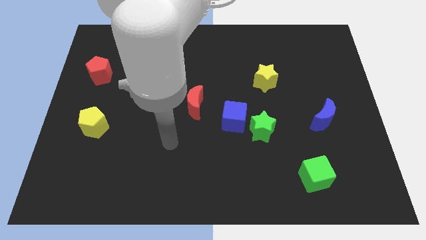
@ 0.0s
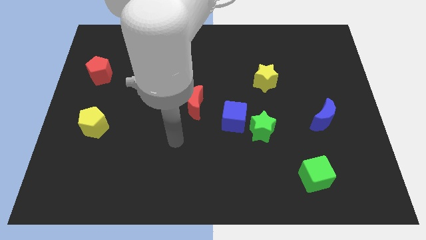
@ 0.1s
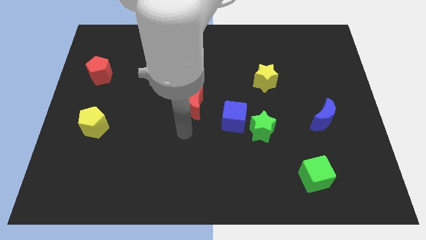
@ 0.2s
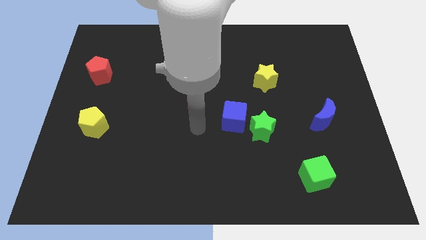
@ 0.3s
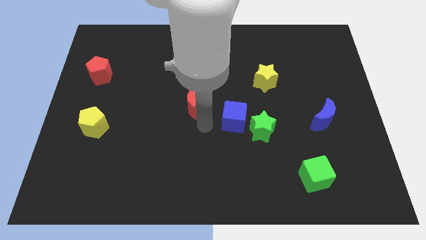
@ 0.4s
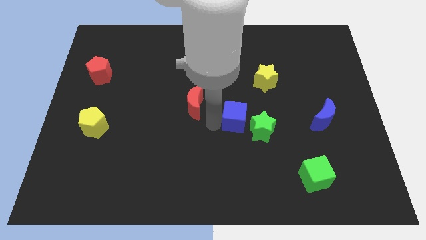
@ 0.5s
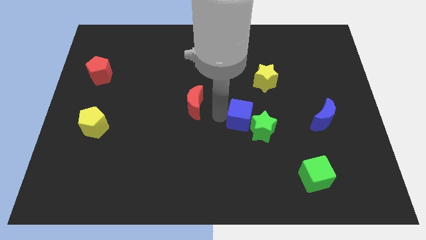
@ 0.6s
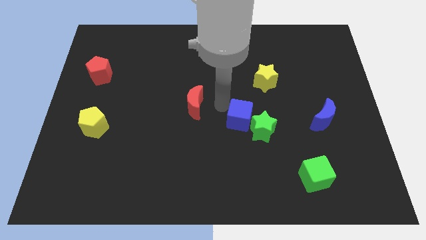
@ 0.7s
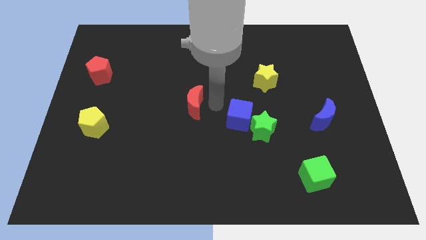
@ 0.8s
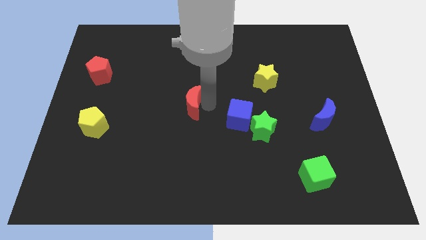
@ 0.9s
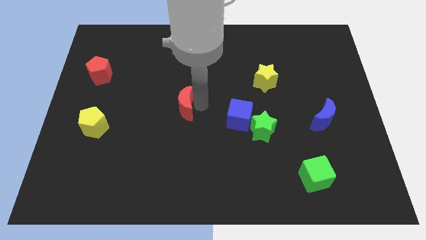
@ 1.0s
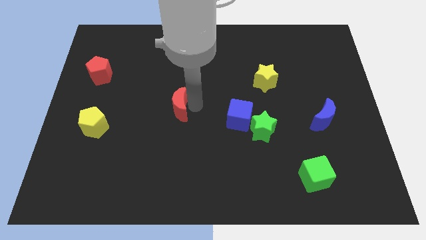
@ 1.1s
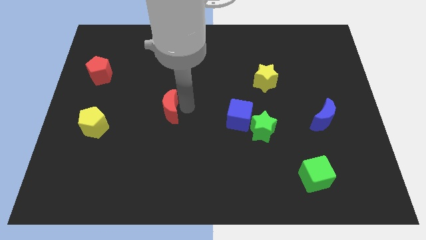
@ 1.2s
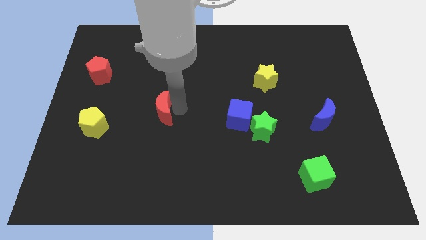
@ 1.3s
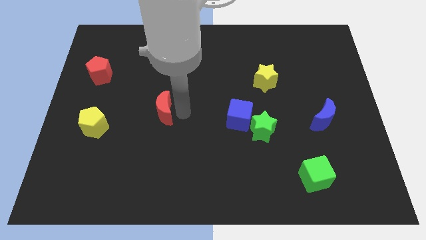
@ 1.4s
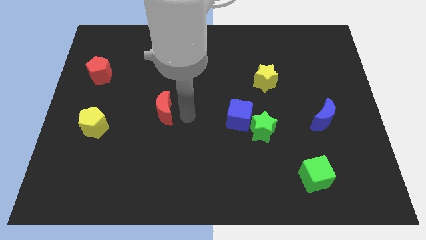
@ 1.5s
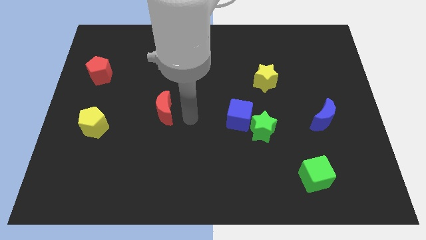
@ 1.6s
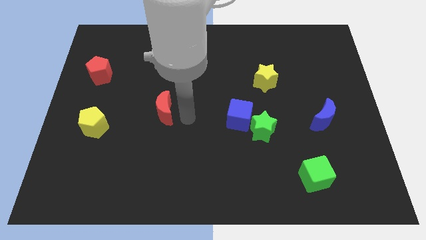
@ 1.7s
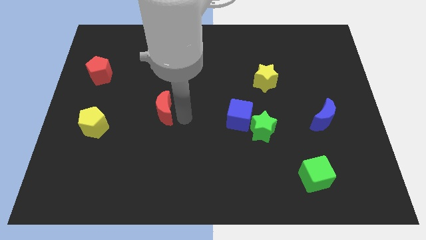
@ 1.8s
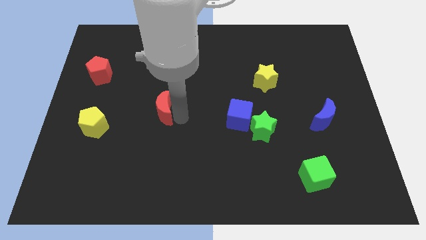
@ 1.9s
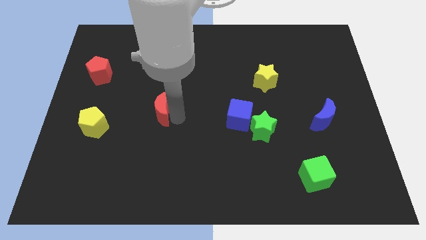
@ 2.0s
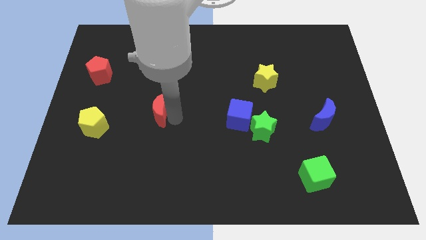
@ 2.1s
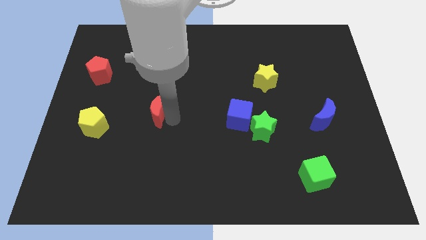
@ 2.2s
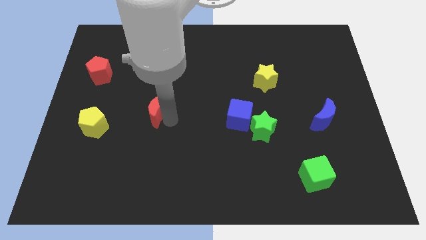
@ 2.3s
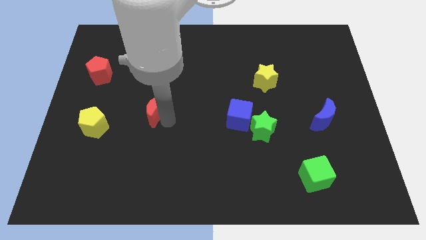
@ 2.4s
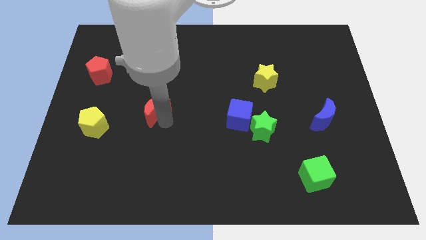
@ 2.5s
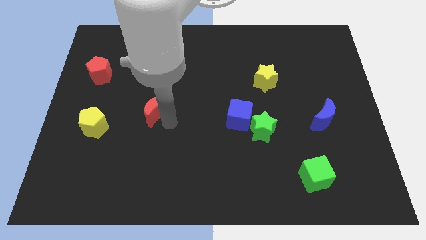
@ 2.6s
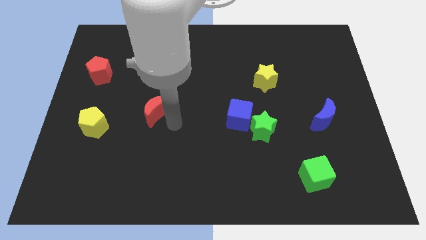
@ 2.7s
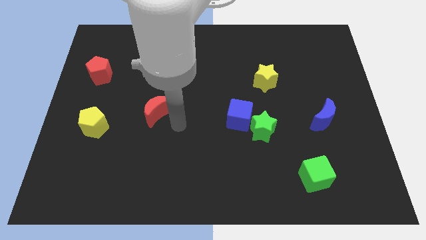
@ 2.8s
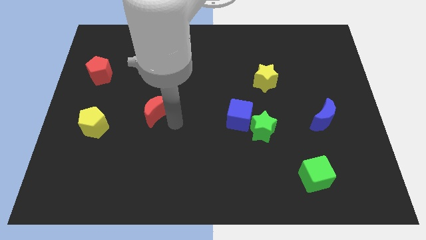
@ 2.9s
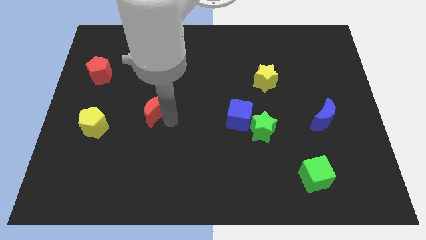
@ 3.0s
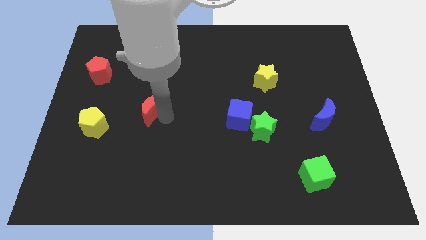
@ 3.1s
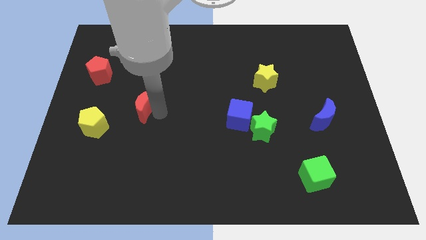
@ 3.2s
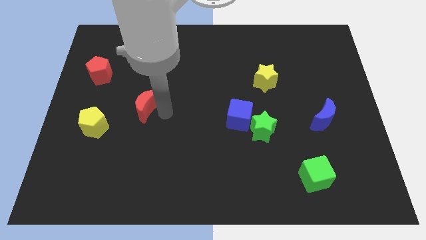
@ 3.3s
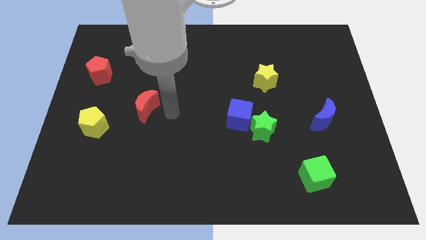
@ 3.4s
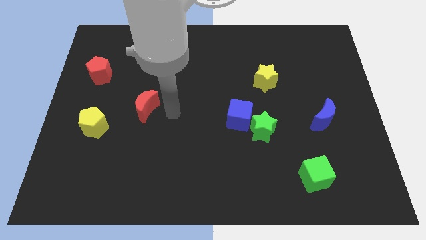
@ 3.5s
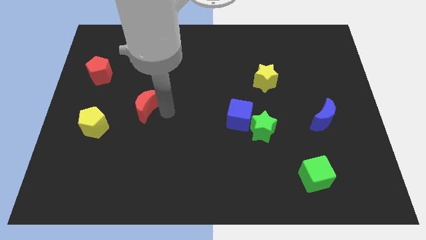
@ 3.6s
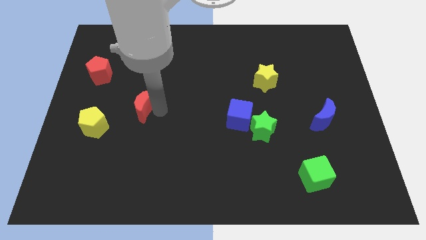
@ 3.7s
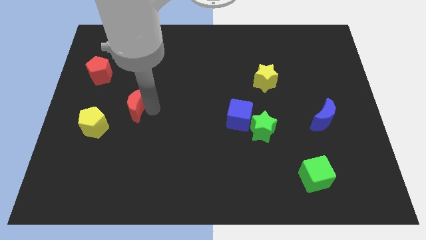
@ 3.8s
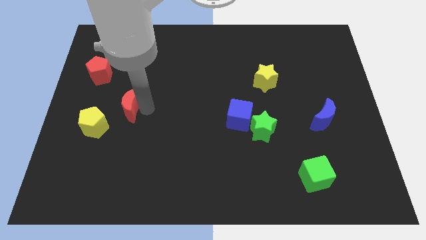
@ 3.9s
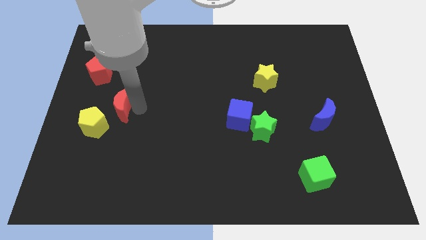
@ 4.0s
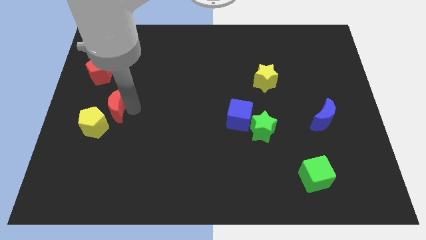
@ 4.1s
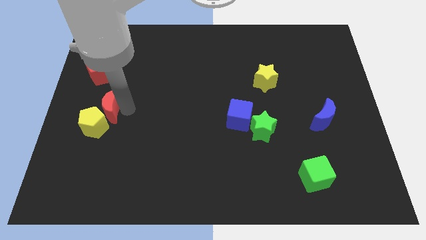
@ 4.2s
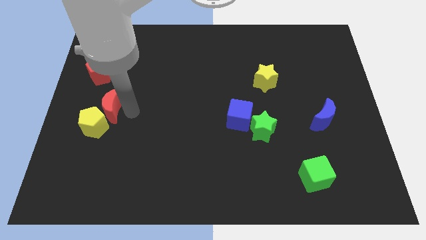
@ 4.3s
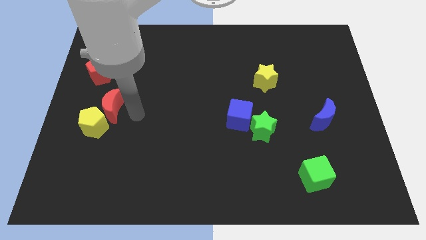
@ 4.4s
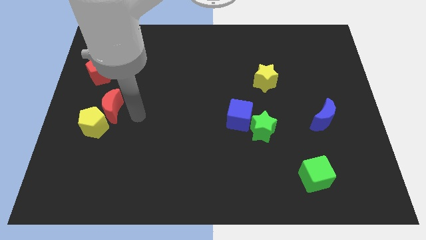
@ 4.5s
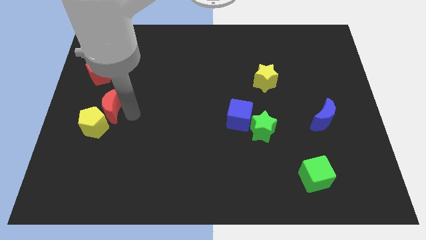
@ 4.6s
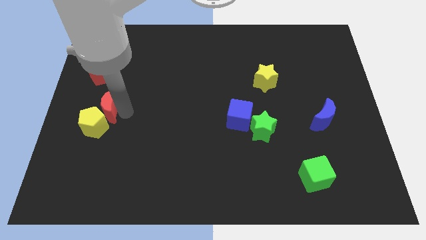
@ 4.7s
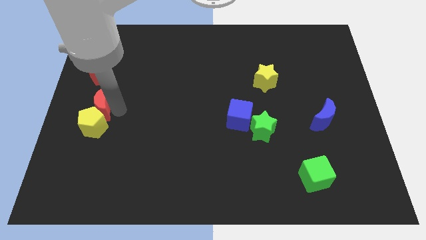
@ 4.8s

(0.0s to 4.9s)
push the red moon to the left side

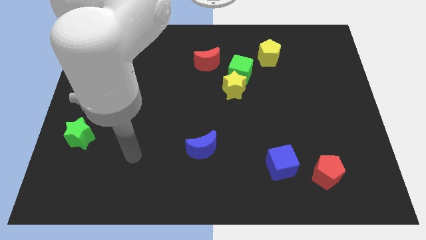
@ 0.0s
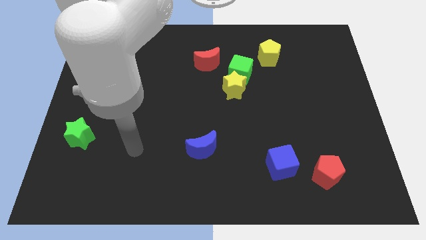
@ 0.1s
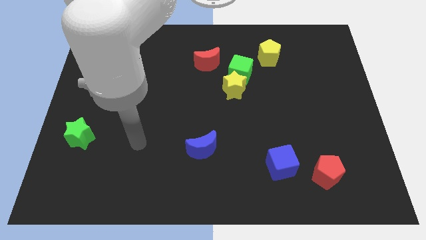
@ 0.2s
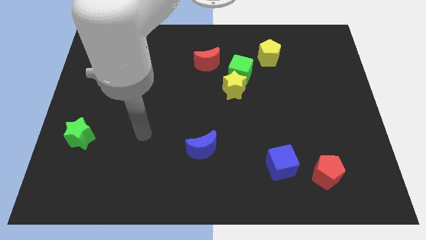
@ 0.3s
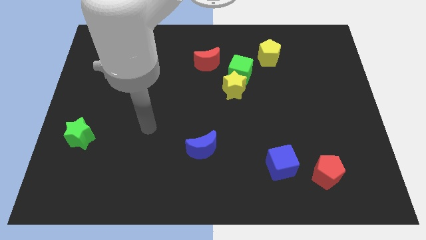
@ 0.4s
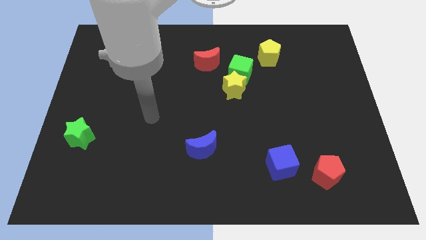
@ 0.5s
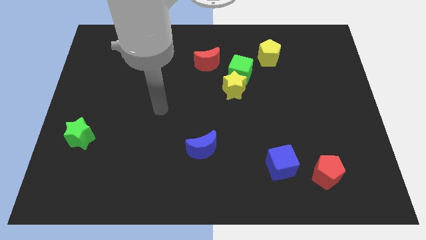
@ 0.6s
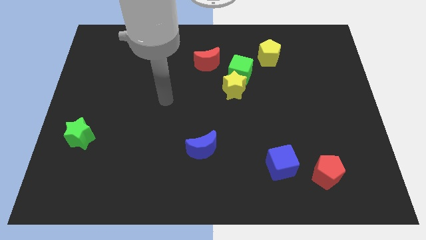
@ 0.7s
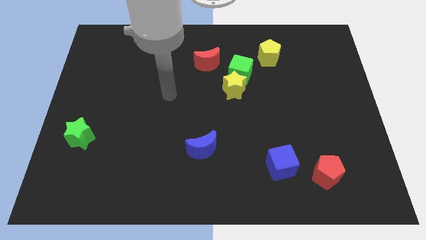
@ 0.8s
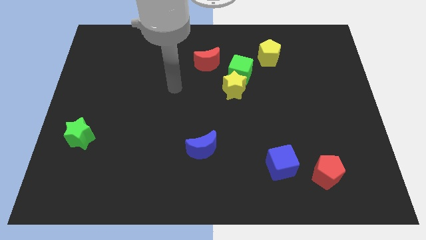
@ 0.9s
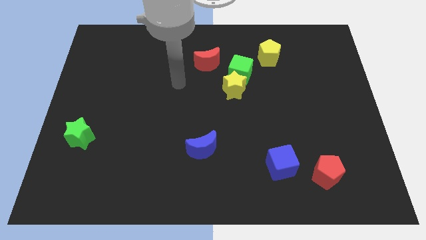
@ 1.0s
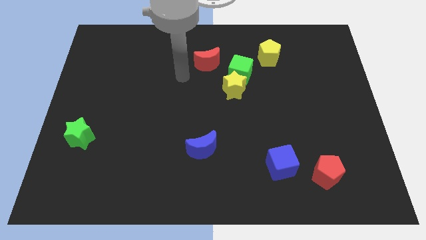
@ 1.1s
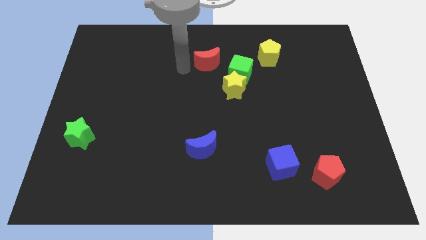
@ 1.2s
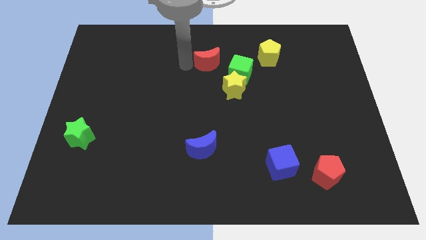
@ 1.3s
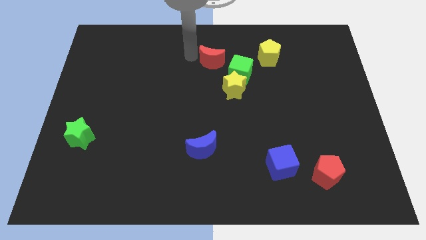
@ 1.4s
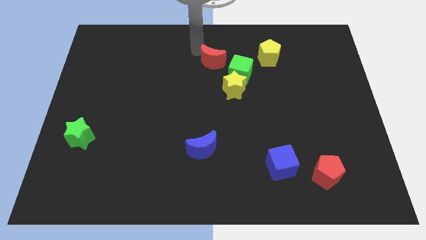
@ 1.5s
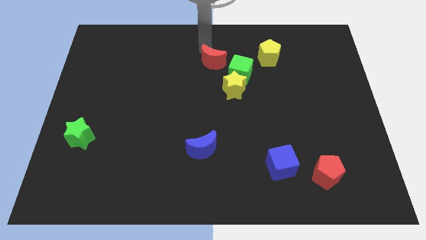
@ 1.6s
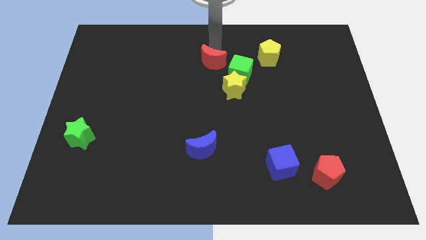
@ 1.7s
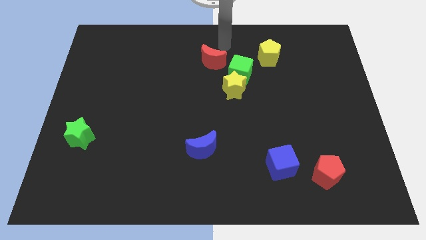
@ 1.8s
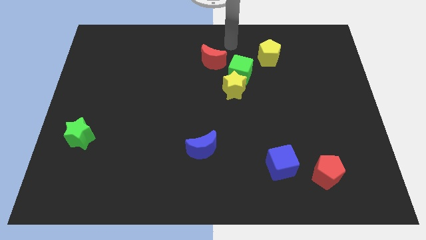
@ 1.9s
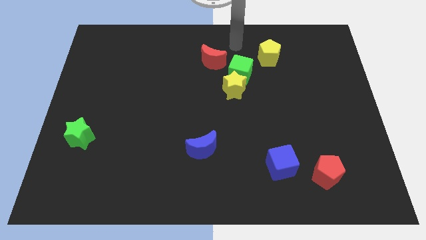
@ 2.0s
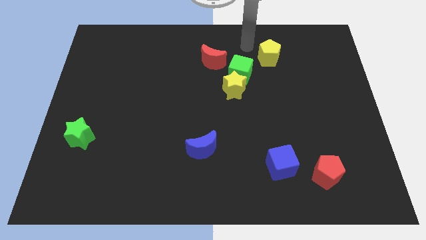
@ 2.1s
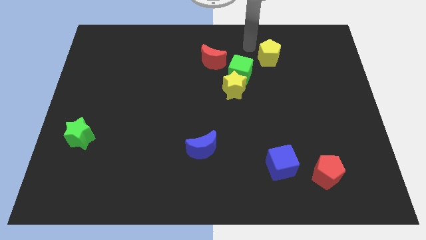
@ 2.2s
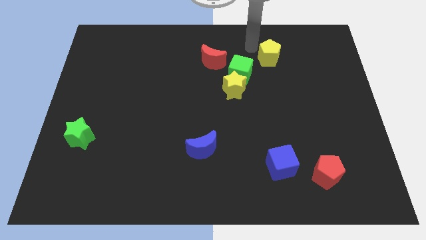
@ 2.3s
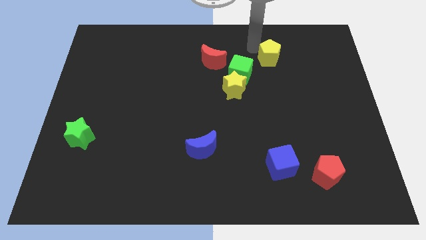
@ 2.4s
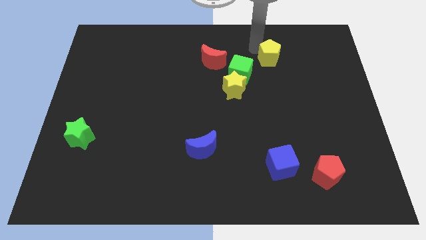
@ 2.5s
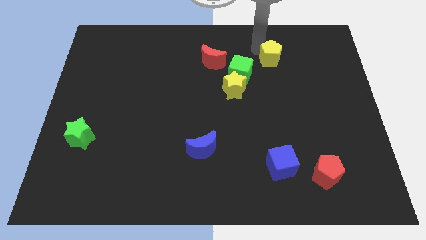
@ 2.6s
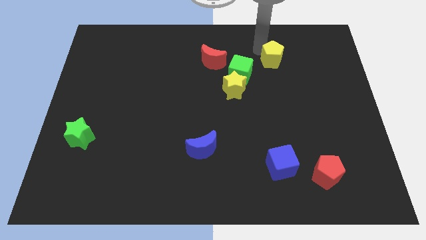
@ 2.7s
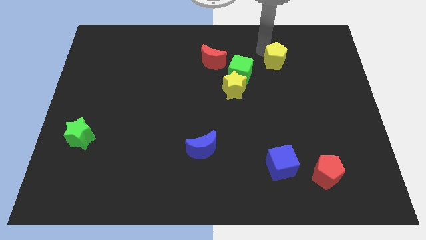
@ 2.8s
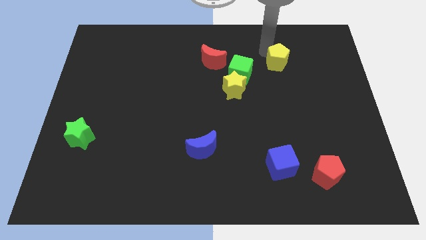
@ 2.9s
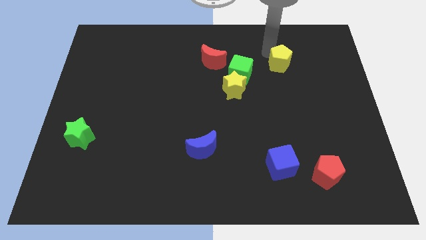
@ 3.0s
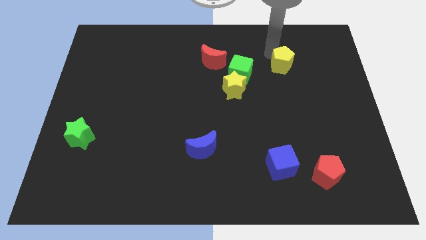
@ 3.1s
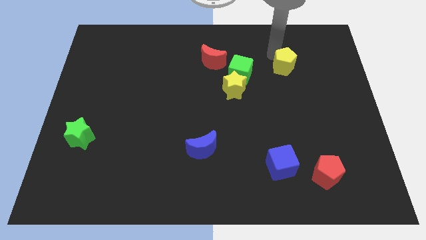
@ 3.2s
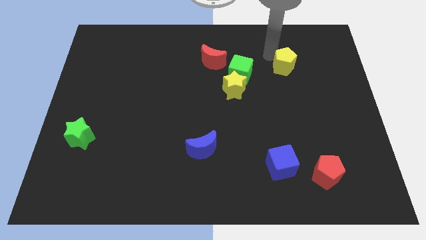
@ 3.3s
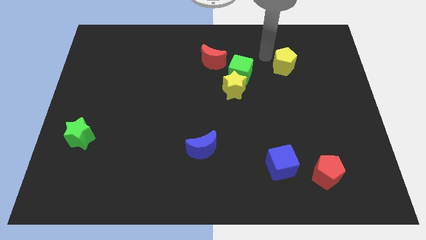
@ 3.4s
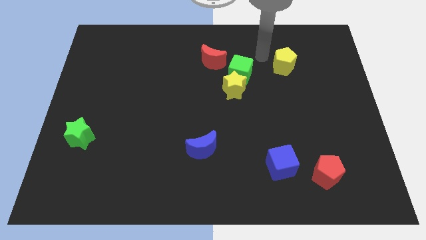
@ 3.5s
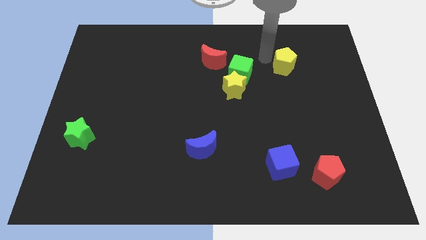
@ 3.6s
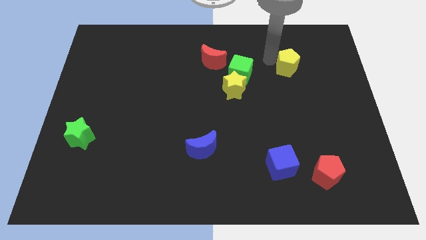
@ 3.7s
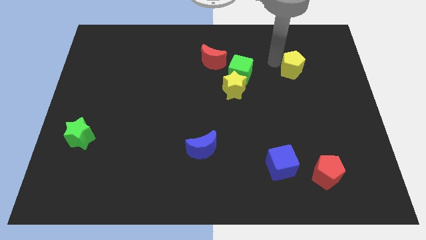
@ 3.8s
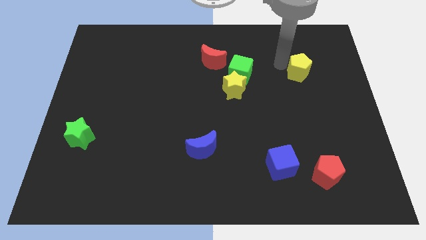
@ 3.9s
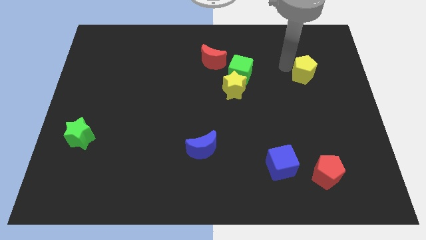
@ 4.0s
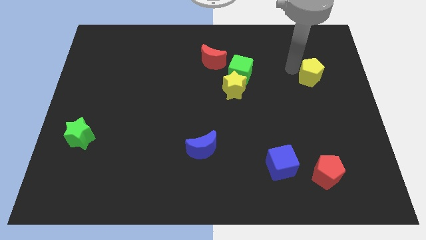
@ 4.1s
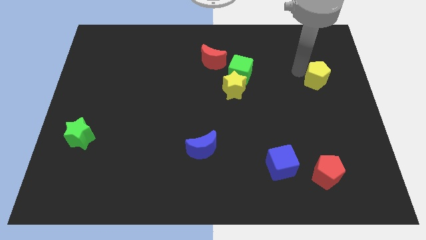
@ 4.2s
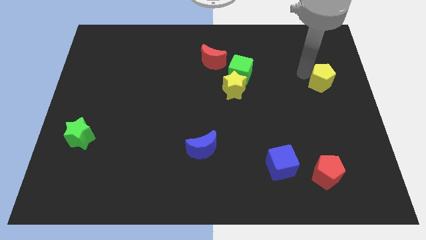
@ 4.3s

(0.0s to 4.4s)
slide the yellow pentagon to the right side
